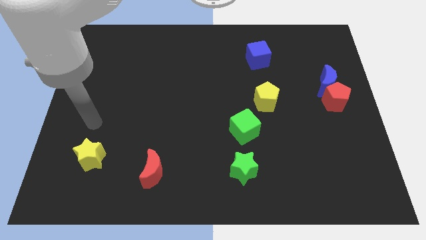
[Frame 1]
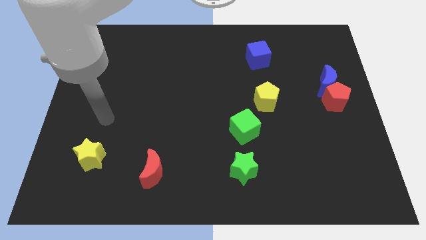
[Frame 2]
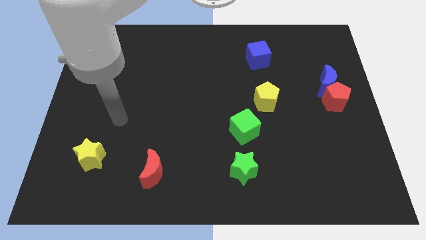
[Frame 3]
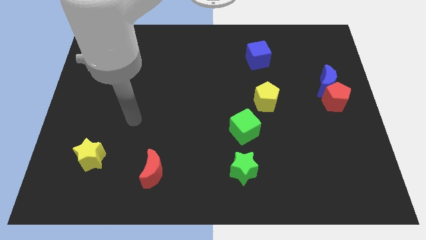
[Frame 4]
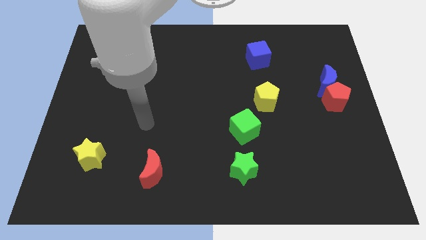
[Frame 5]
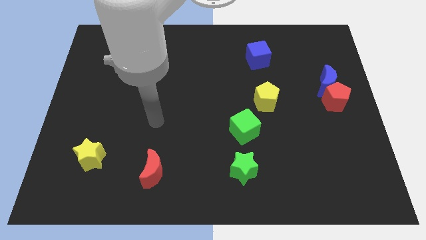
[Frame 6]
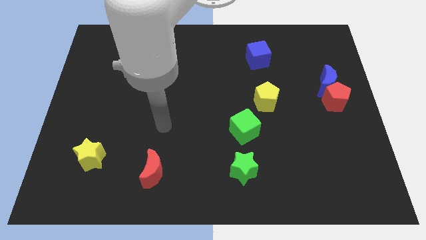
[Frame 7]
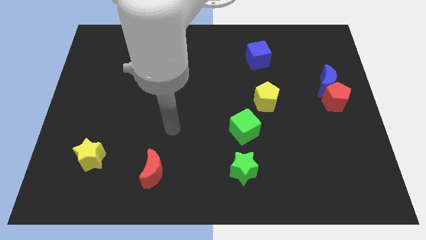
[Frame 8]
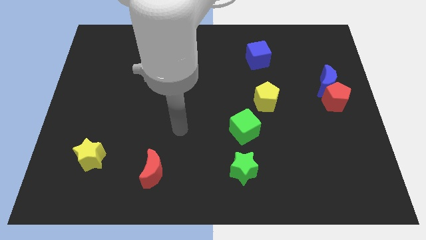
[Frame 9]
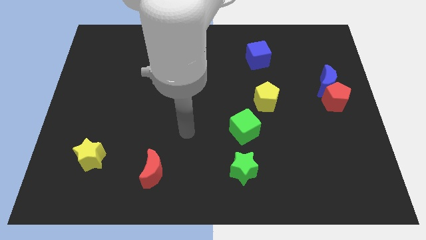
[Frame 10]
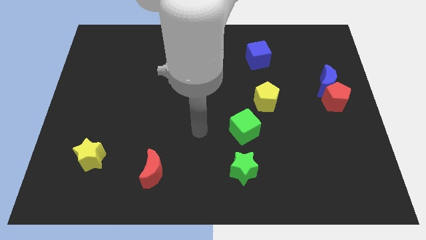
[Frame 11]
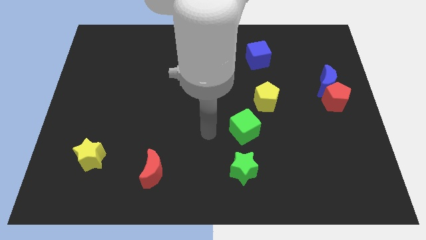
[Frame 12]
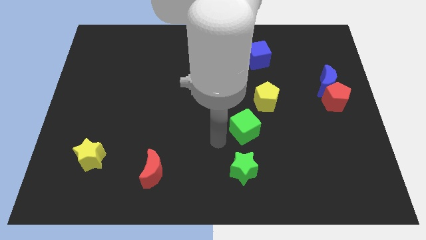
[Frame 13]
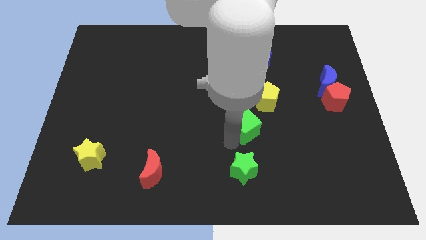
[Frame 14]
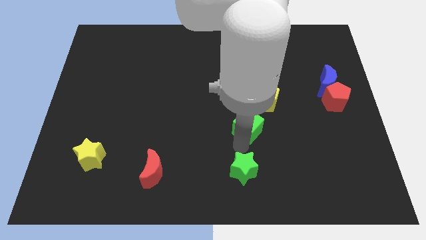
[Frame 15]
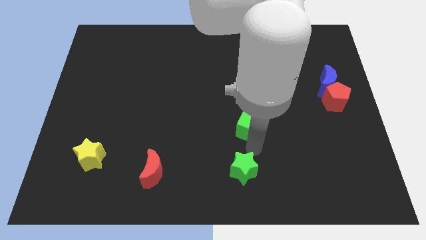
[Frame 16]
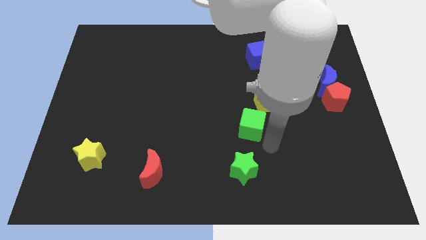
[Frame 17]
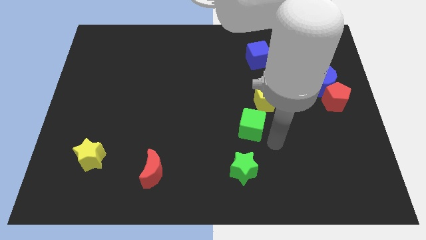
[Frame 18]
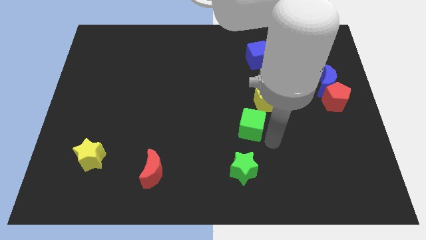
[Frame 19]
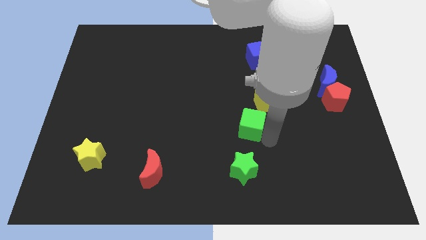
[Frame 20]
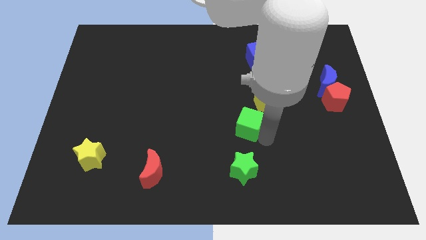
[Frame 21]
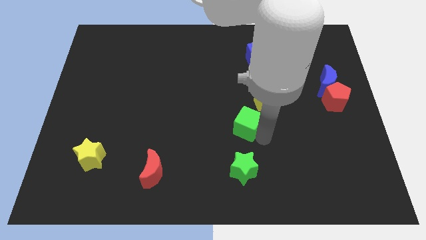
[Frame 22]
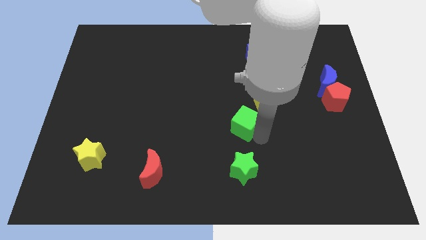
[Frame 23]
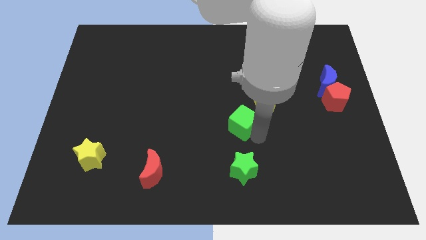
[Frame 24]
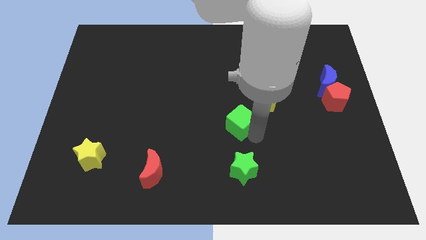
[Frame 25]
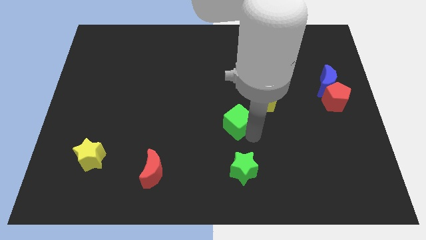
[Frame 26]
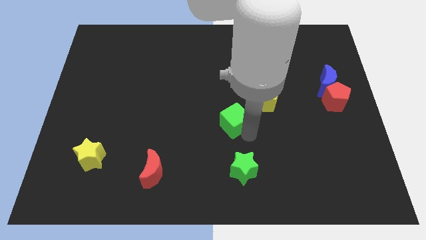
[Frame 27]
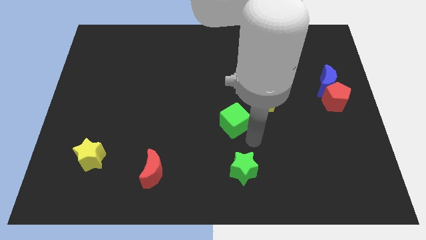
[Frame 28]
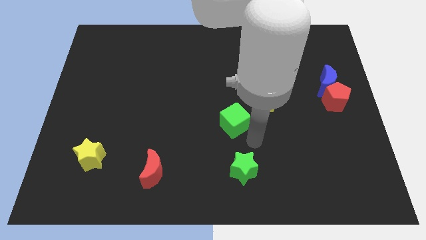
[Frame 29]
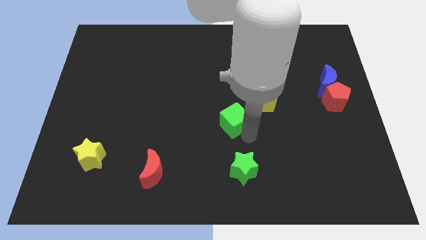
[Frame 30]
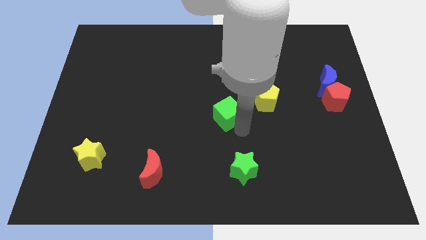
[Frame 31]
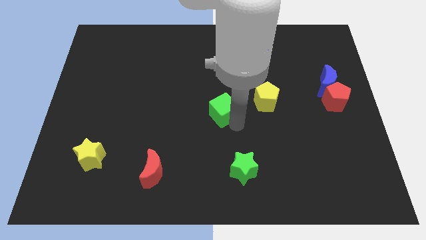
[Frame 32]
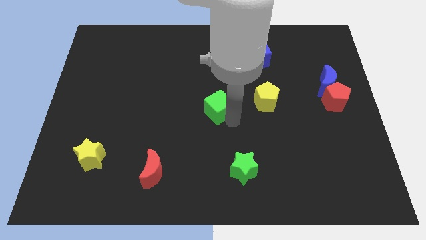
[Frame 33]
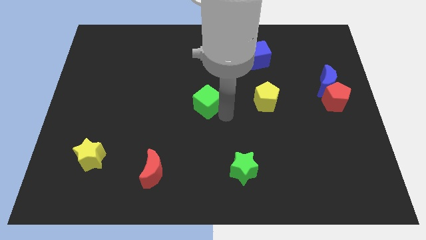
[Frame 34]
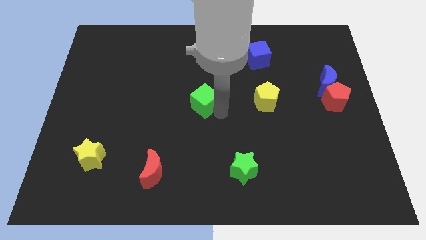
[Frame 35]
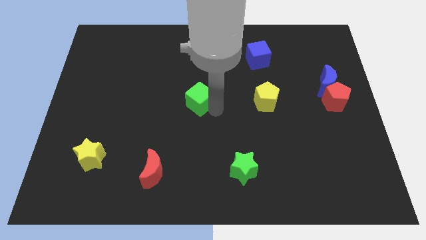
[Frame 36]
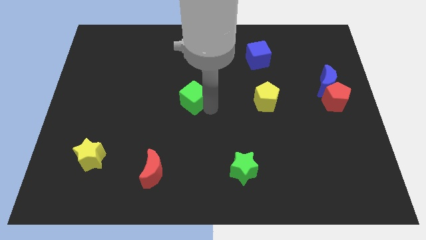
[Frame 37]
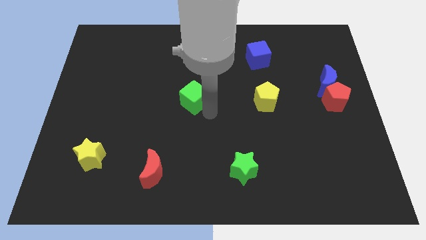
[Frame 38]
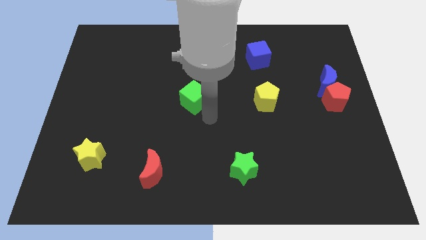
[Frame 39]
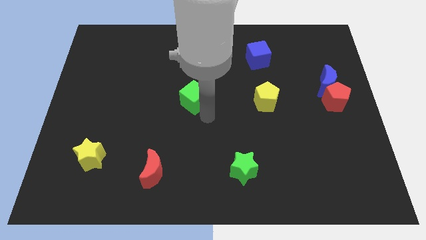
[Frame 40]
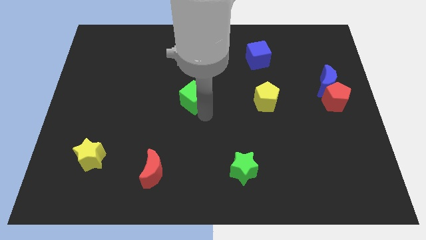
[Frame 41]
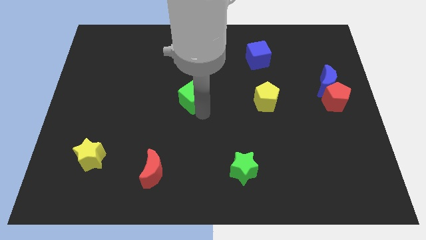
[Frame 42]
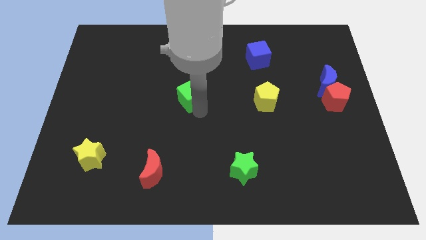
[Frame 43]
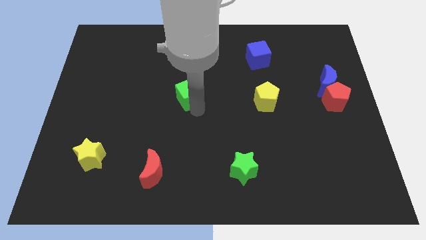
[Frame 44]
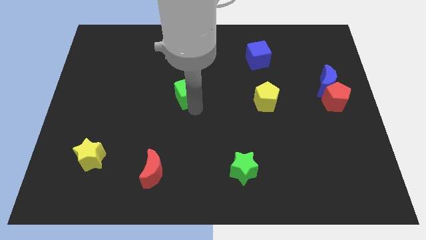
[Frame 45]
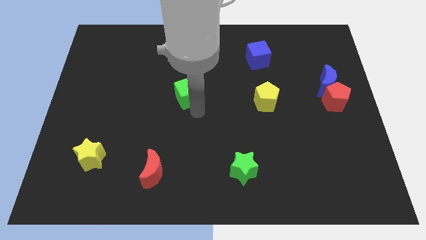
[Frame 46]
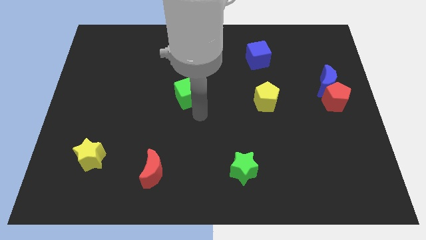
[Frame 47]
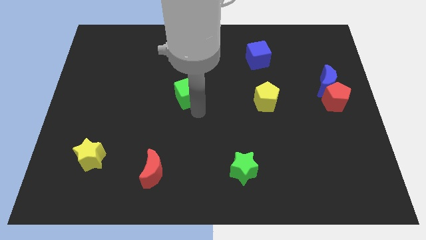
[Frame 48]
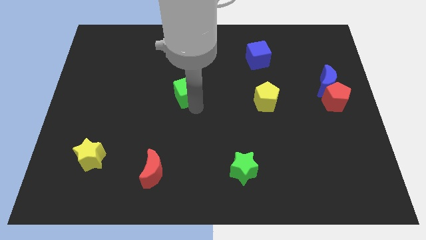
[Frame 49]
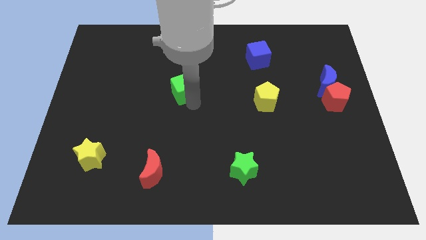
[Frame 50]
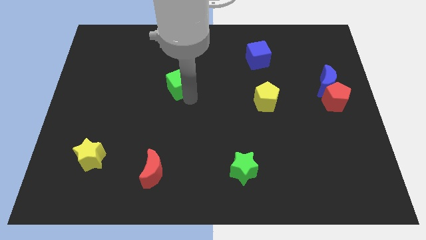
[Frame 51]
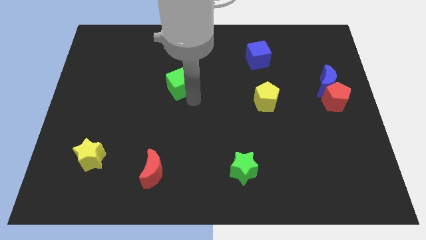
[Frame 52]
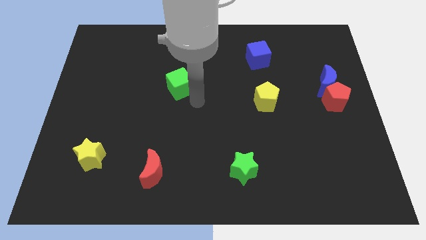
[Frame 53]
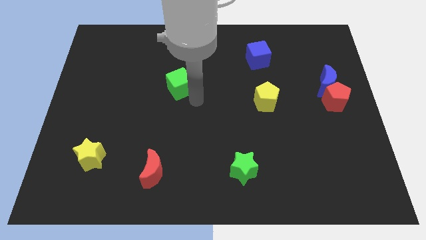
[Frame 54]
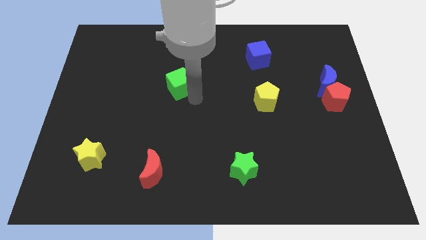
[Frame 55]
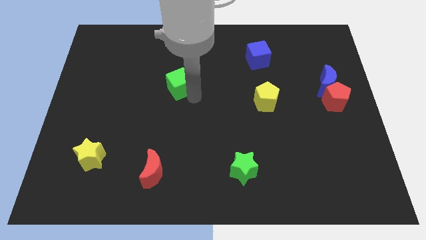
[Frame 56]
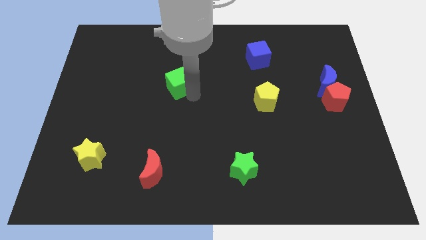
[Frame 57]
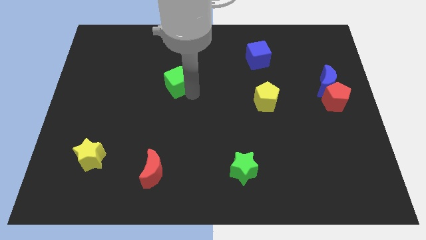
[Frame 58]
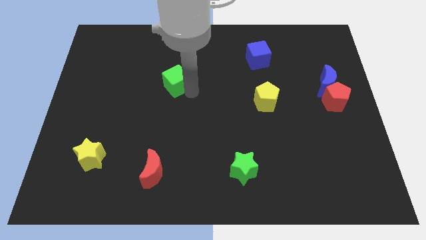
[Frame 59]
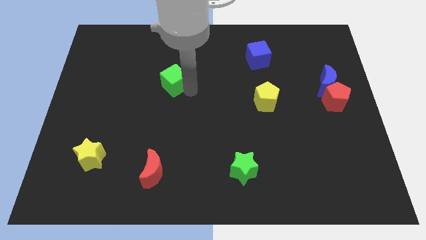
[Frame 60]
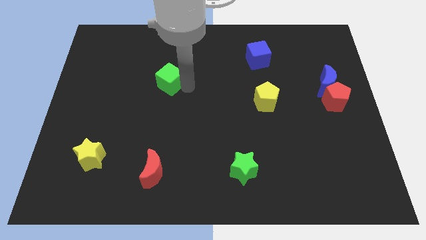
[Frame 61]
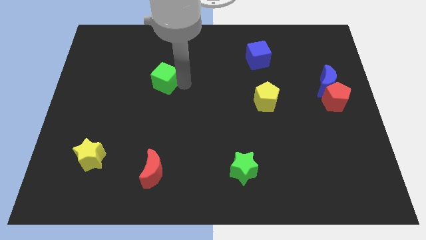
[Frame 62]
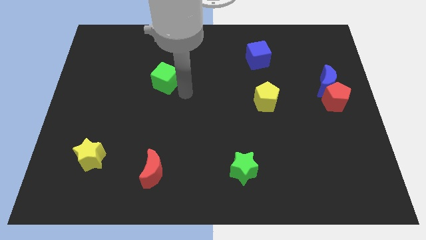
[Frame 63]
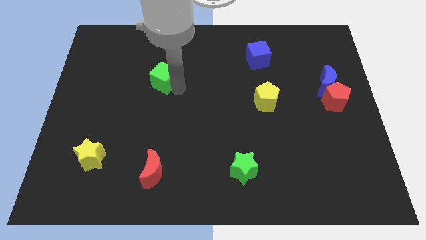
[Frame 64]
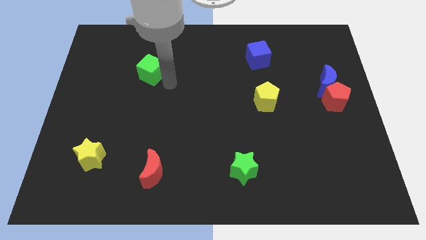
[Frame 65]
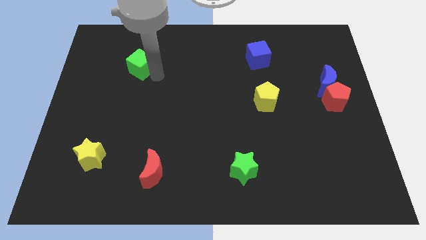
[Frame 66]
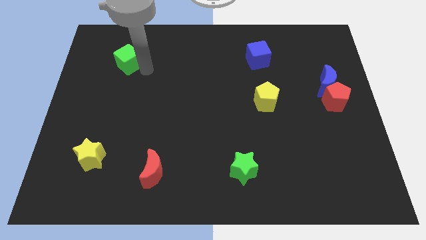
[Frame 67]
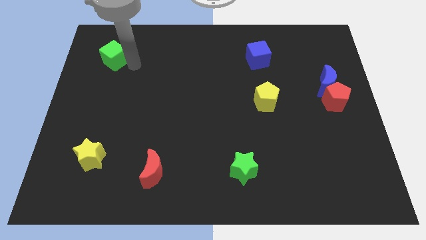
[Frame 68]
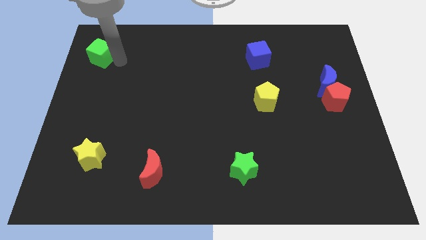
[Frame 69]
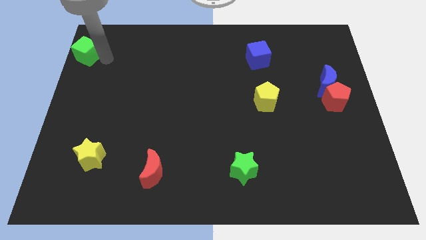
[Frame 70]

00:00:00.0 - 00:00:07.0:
put the green cube to the upper left corner
